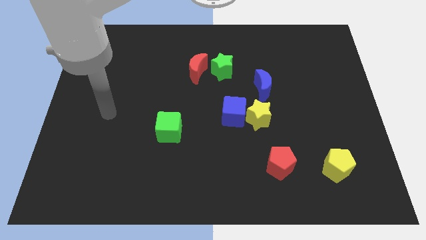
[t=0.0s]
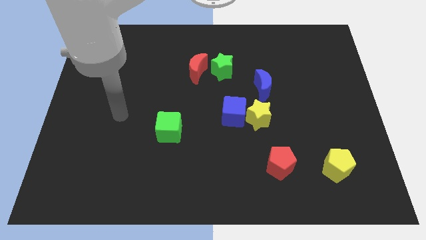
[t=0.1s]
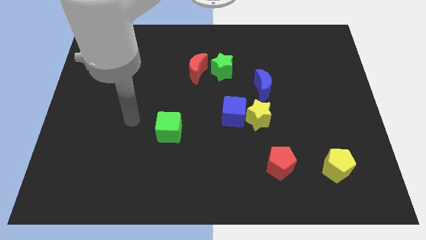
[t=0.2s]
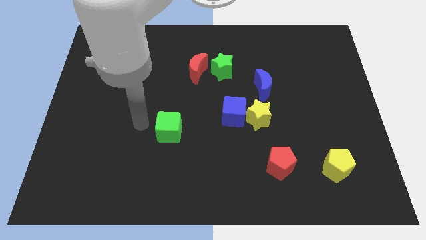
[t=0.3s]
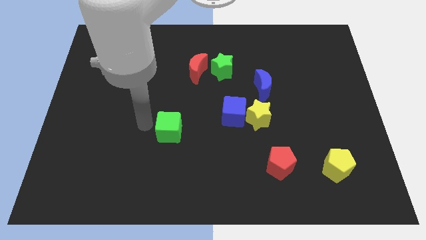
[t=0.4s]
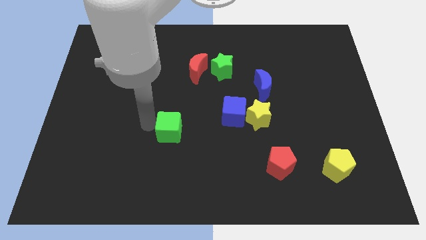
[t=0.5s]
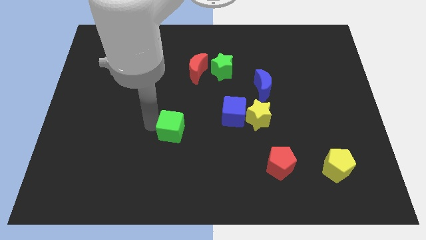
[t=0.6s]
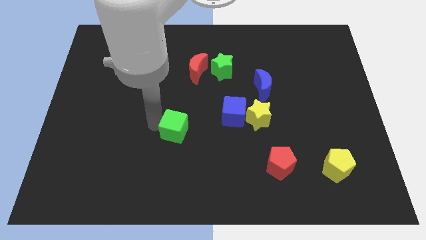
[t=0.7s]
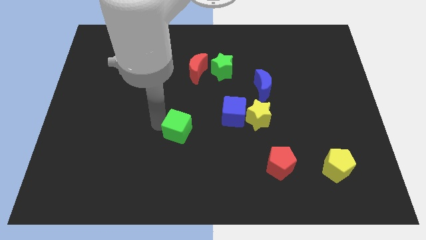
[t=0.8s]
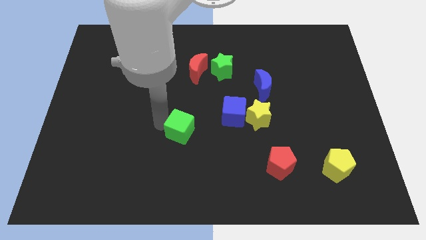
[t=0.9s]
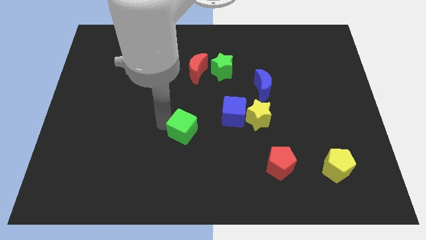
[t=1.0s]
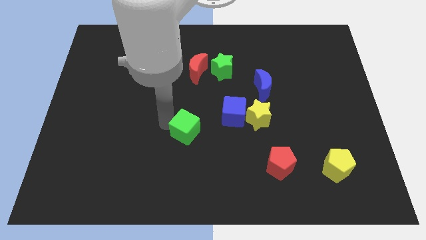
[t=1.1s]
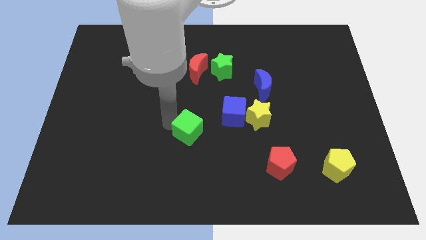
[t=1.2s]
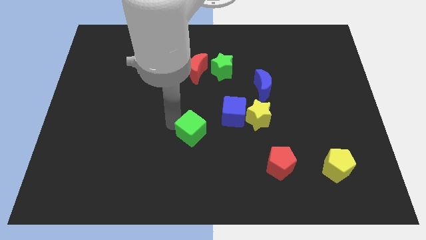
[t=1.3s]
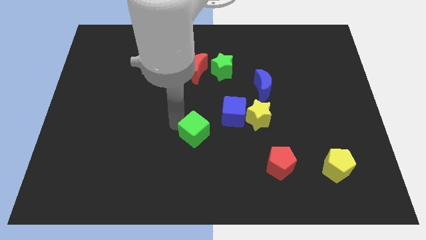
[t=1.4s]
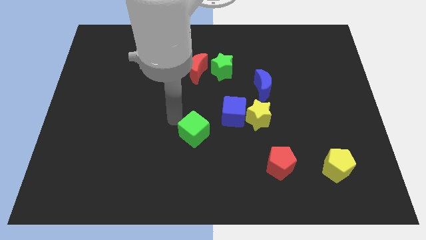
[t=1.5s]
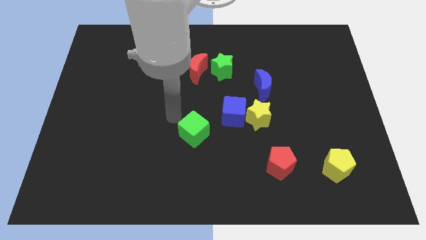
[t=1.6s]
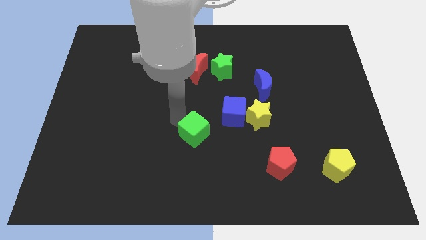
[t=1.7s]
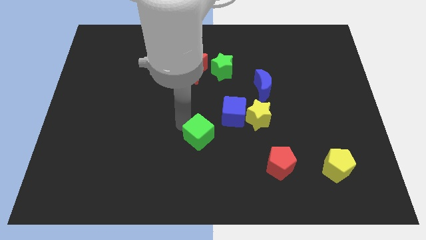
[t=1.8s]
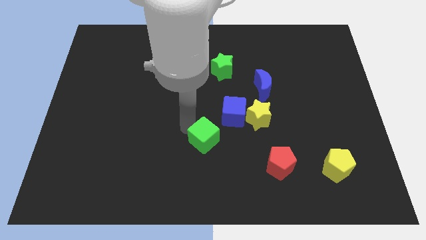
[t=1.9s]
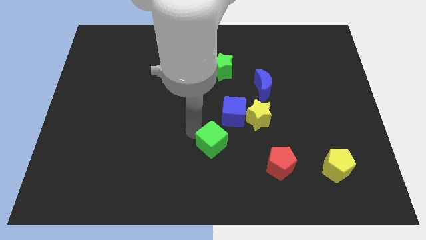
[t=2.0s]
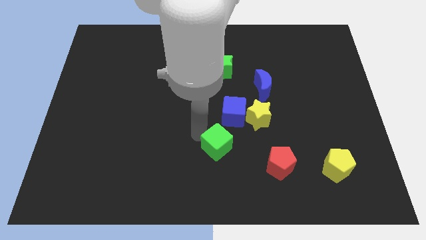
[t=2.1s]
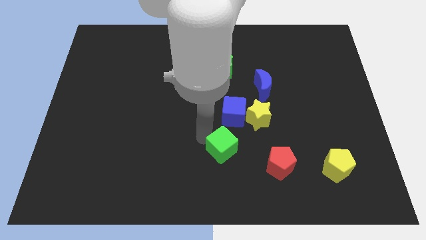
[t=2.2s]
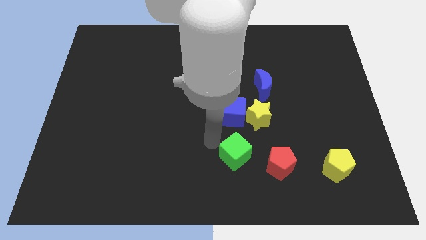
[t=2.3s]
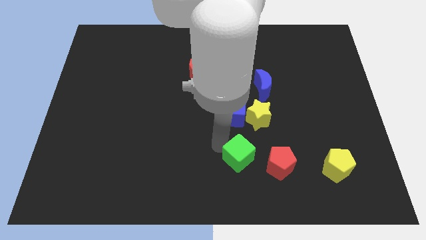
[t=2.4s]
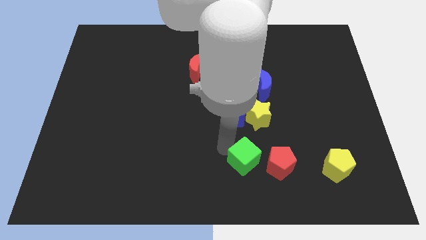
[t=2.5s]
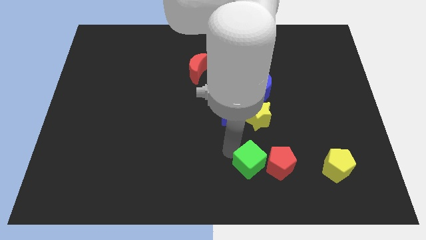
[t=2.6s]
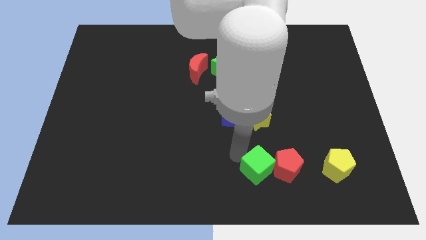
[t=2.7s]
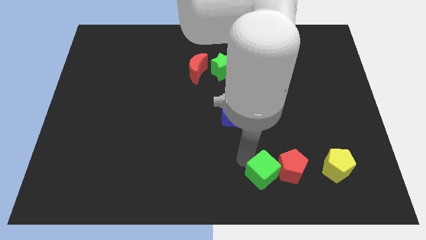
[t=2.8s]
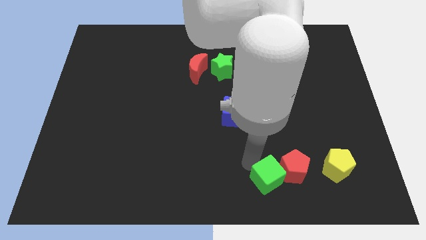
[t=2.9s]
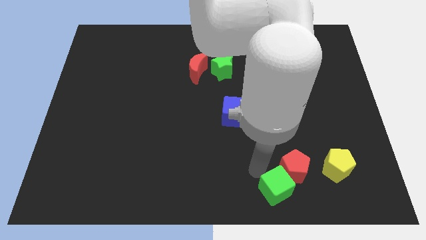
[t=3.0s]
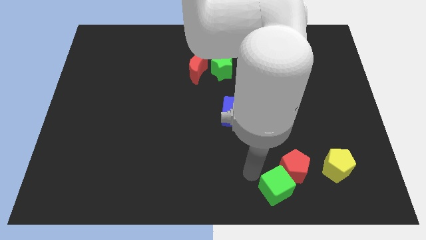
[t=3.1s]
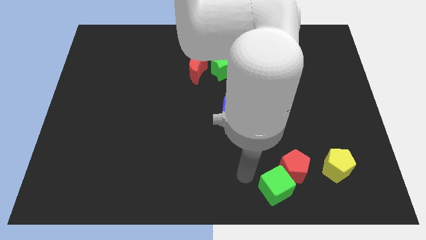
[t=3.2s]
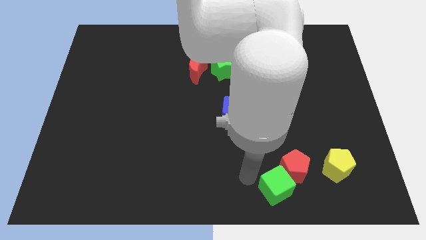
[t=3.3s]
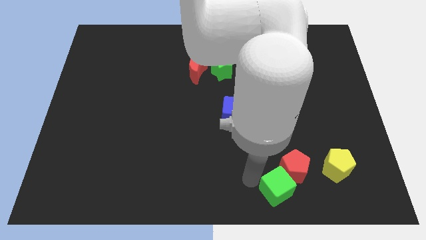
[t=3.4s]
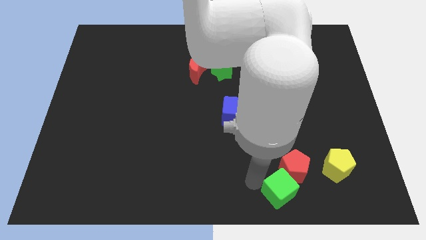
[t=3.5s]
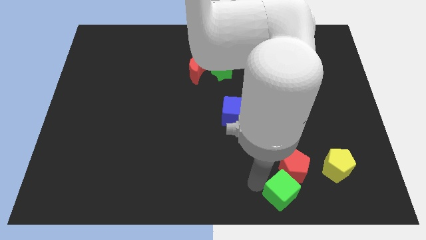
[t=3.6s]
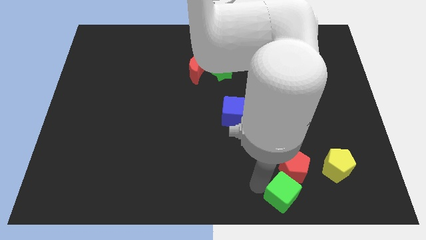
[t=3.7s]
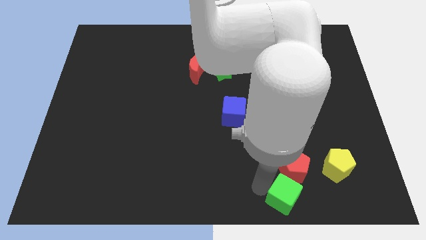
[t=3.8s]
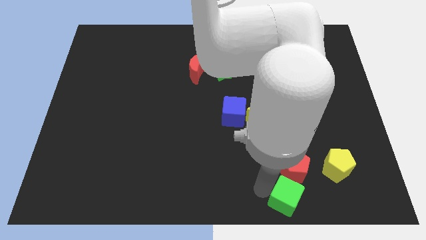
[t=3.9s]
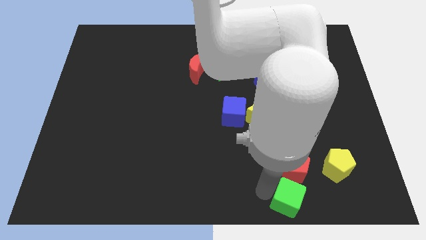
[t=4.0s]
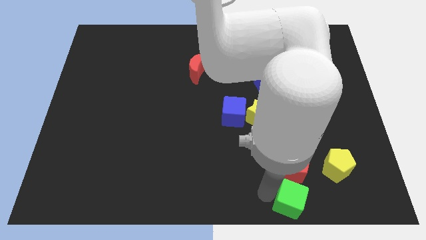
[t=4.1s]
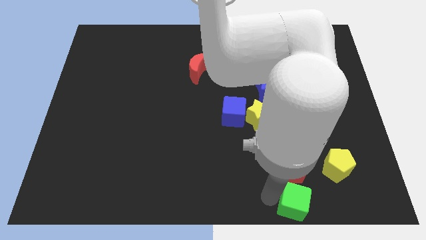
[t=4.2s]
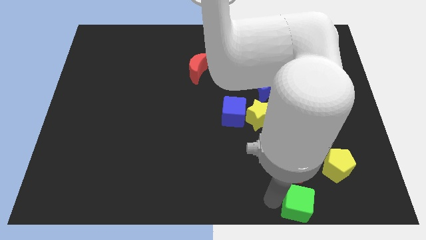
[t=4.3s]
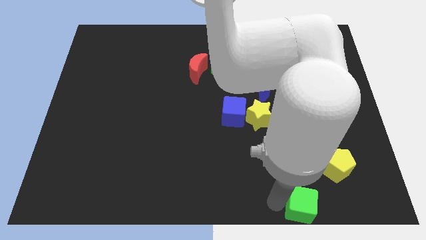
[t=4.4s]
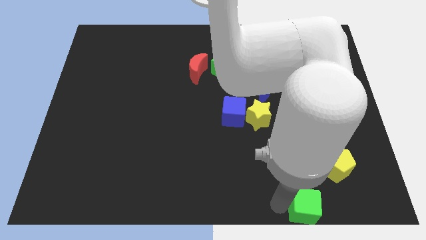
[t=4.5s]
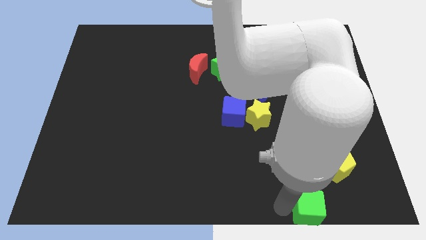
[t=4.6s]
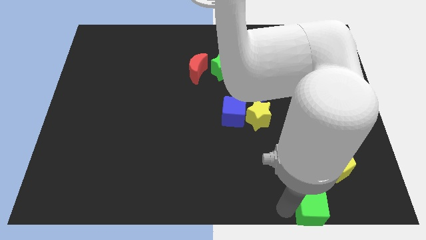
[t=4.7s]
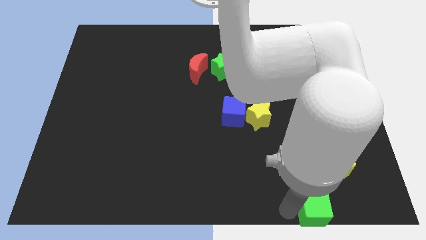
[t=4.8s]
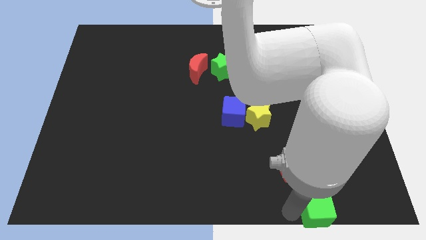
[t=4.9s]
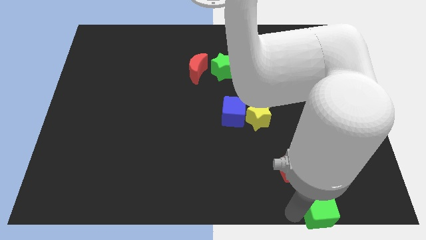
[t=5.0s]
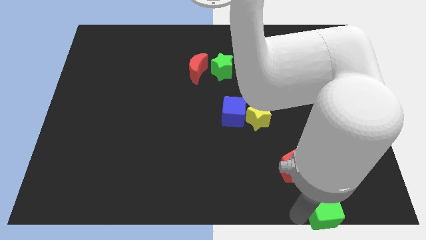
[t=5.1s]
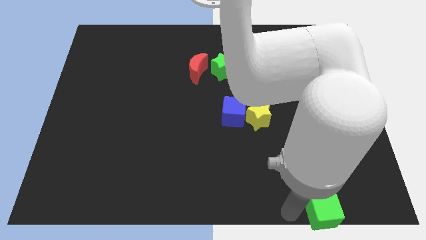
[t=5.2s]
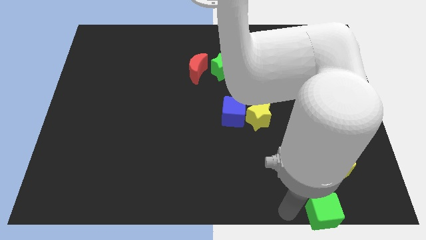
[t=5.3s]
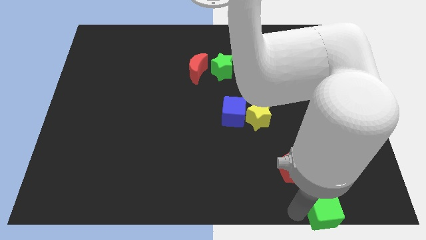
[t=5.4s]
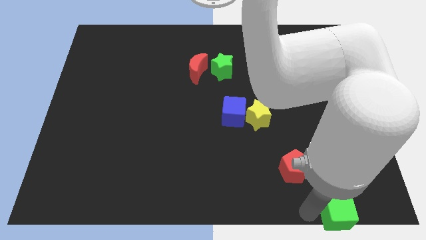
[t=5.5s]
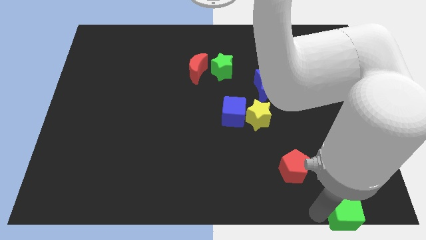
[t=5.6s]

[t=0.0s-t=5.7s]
put the green cube to the bottom right corner

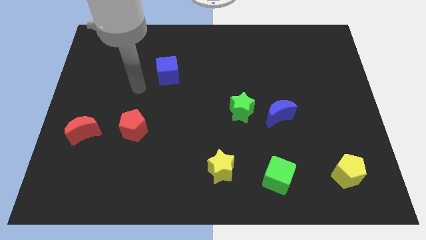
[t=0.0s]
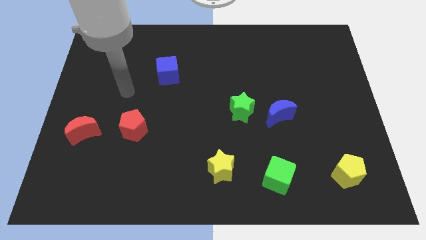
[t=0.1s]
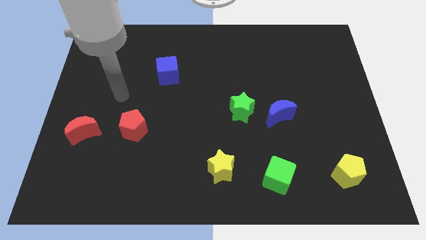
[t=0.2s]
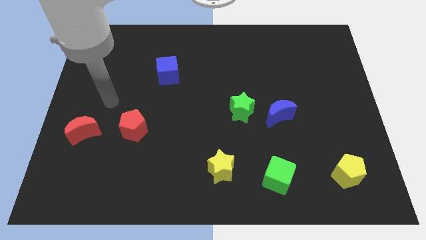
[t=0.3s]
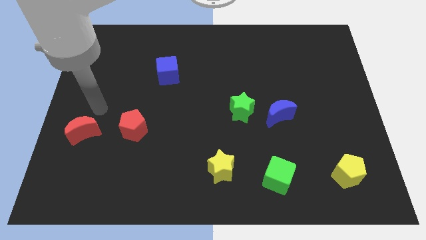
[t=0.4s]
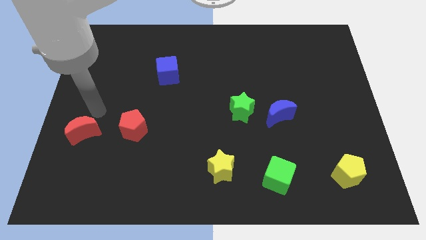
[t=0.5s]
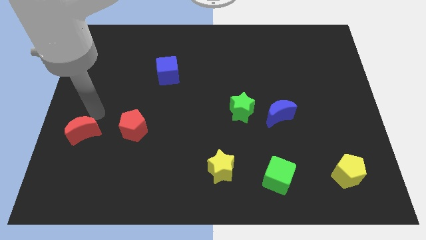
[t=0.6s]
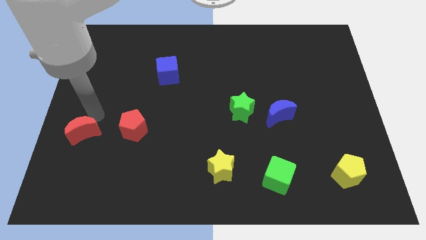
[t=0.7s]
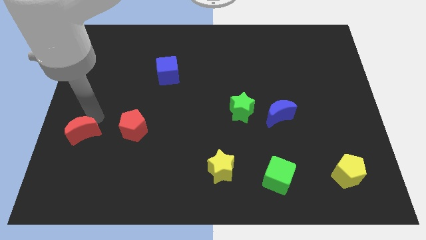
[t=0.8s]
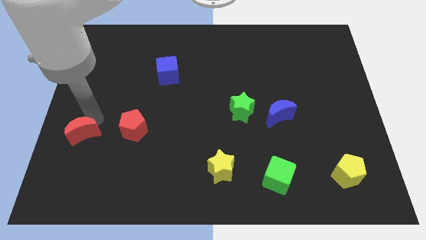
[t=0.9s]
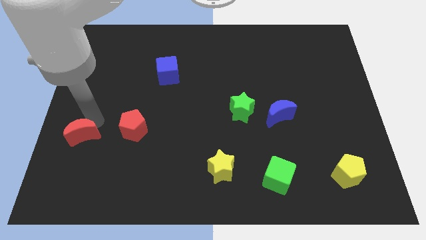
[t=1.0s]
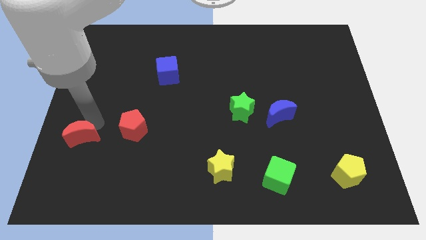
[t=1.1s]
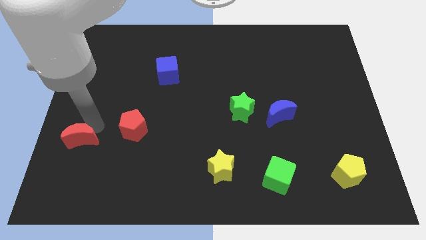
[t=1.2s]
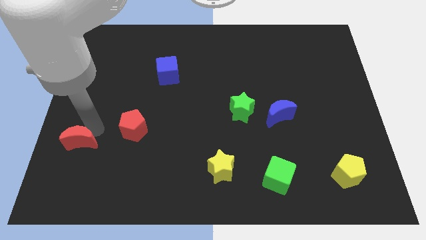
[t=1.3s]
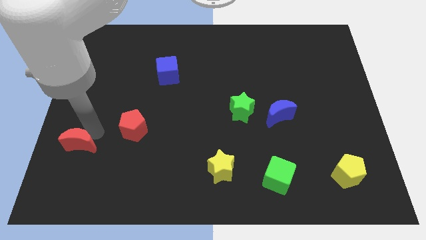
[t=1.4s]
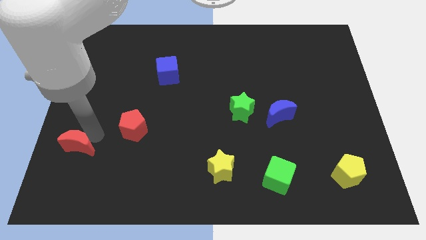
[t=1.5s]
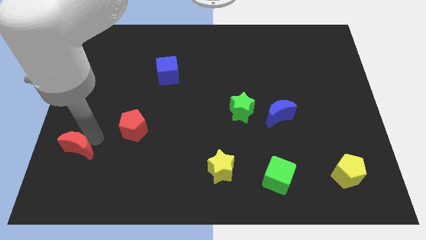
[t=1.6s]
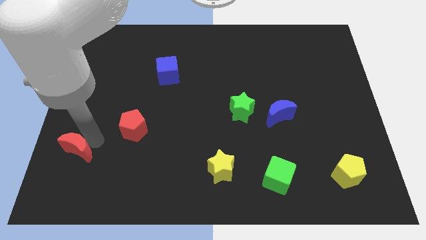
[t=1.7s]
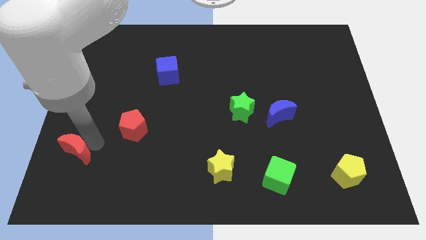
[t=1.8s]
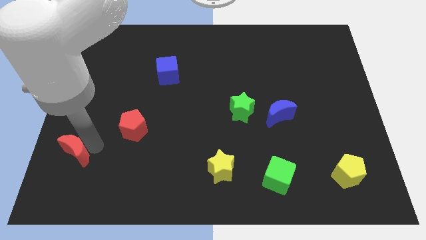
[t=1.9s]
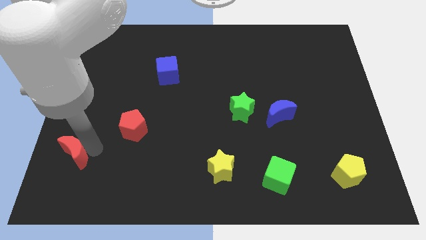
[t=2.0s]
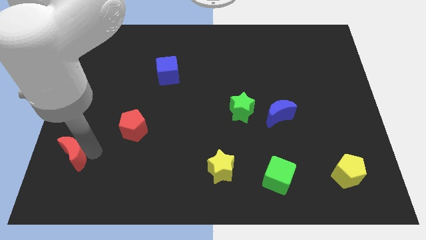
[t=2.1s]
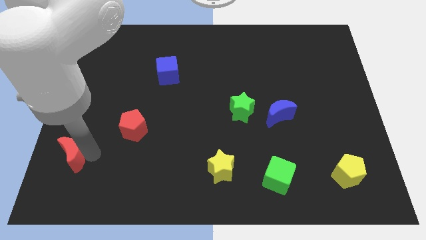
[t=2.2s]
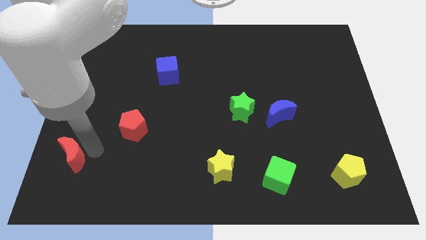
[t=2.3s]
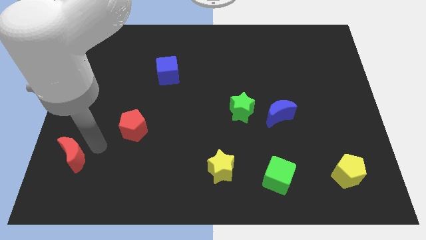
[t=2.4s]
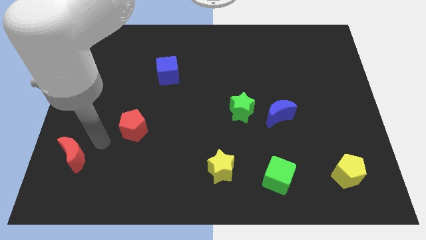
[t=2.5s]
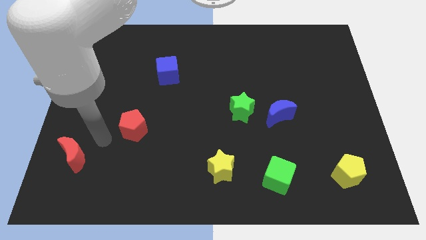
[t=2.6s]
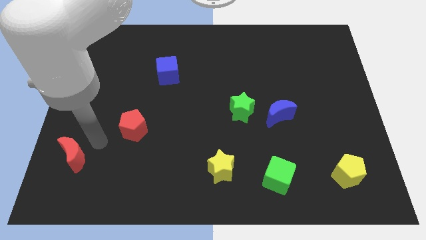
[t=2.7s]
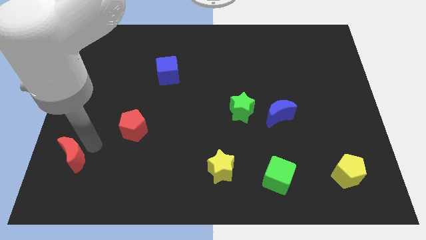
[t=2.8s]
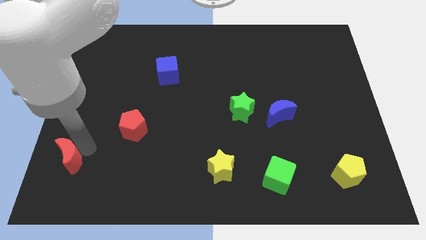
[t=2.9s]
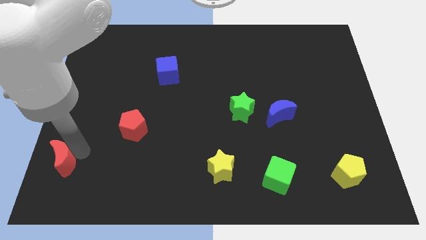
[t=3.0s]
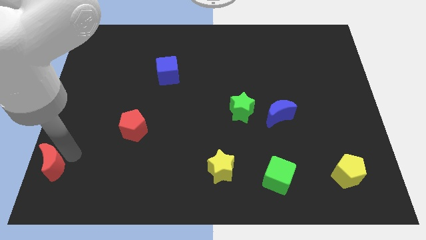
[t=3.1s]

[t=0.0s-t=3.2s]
slide the red moon to the lower left corner
